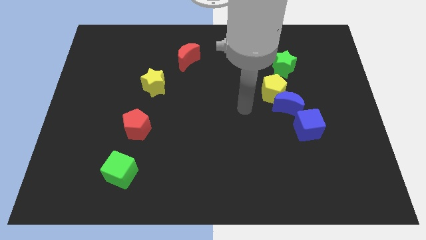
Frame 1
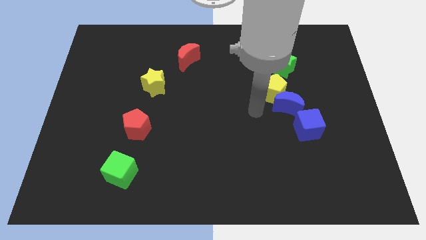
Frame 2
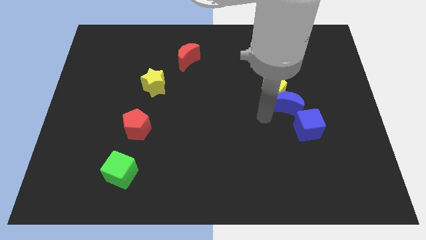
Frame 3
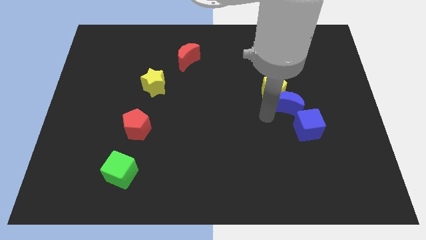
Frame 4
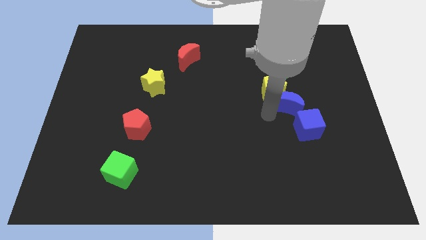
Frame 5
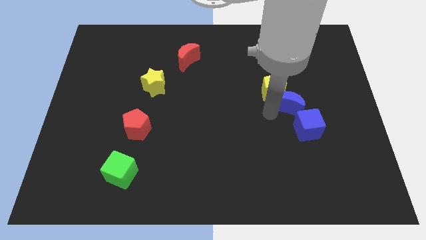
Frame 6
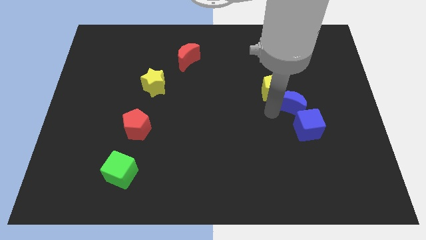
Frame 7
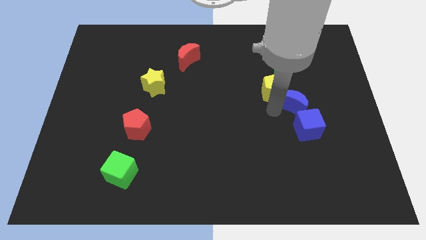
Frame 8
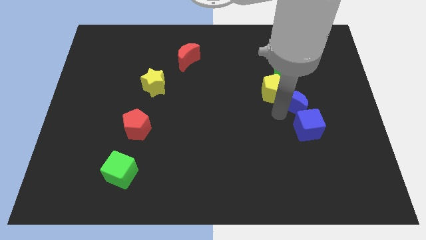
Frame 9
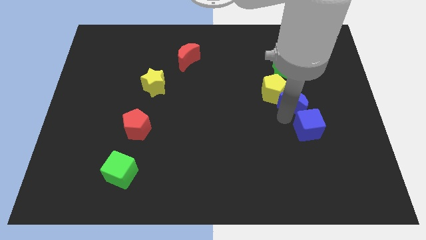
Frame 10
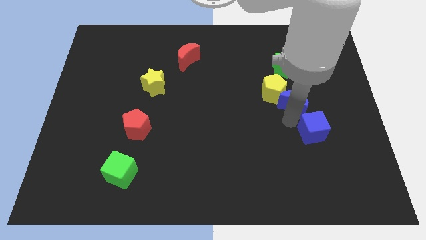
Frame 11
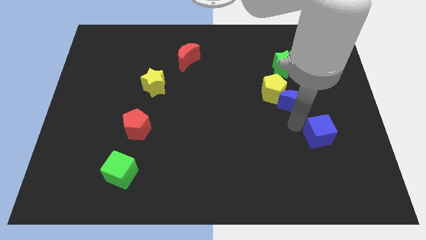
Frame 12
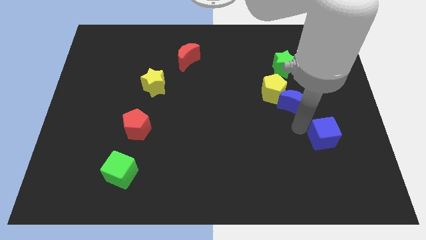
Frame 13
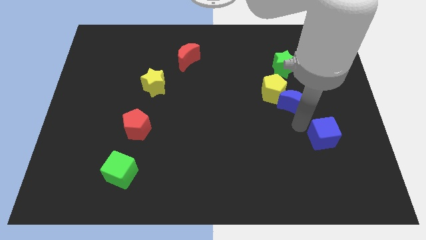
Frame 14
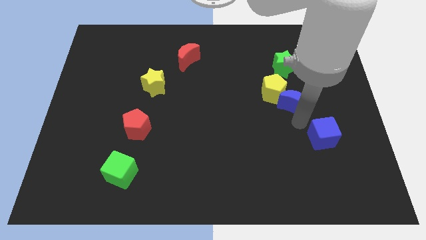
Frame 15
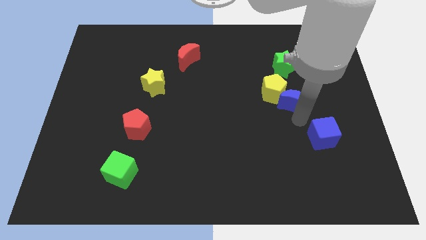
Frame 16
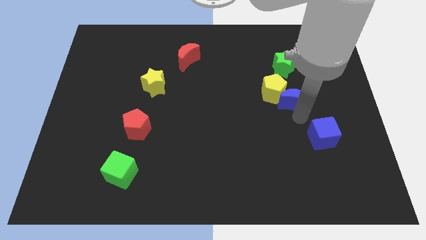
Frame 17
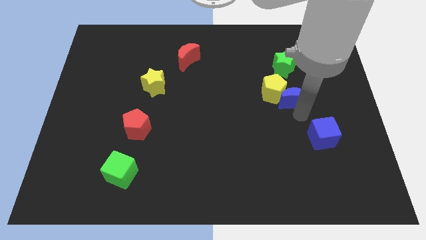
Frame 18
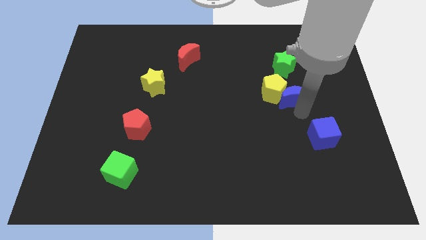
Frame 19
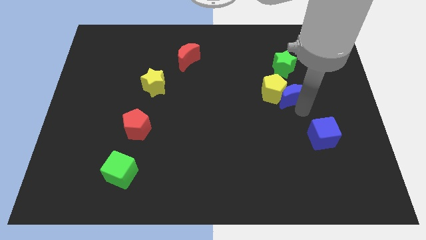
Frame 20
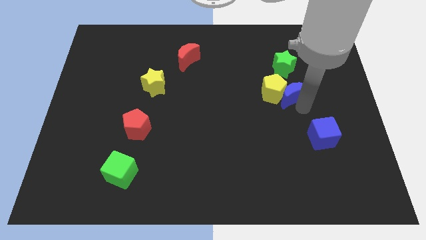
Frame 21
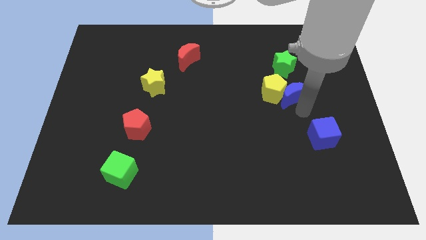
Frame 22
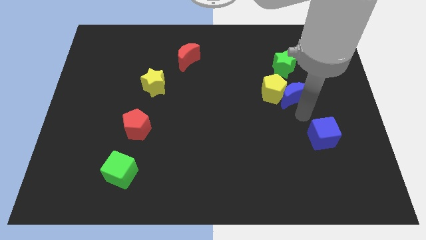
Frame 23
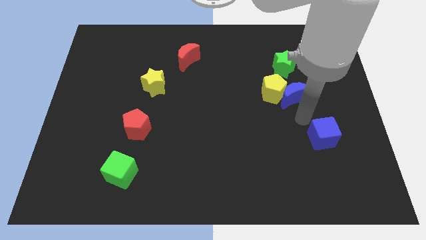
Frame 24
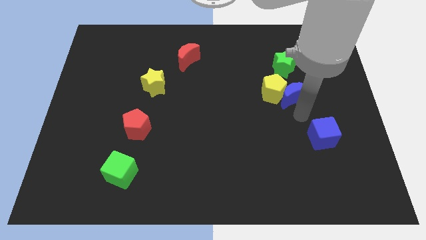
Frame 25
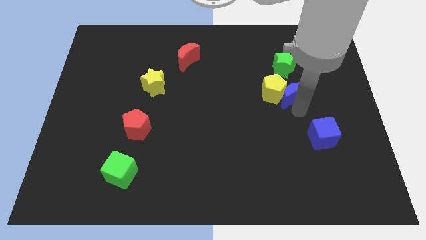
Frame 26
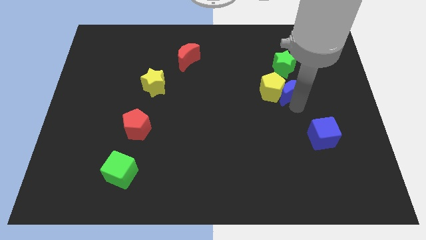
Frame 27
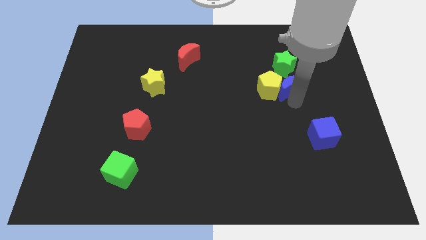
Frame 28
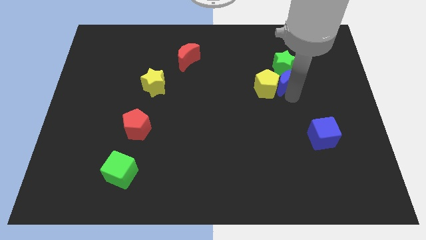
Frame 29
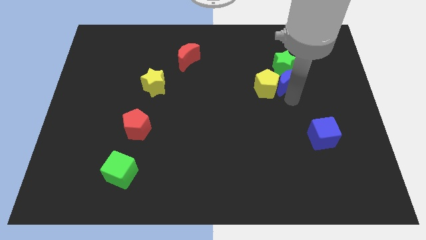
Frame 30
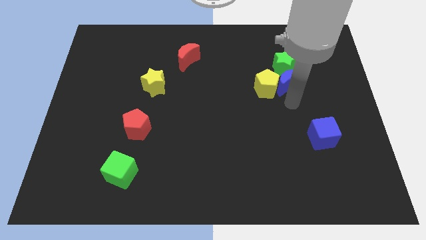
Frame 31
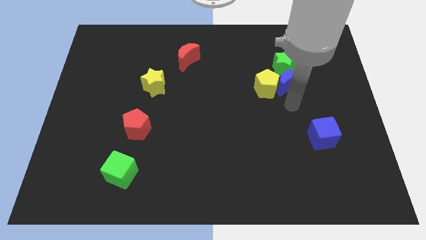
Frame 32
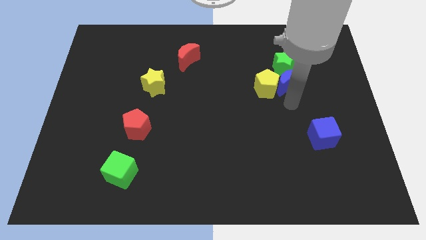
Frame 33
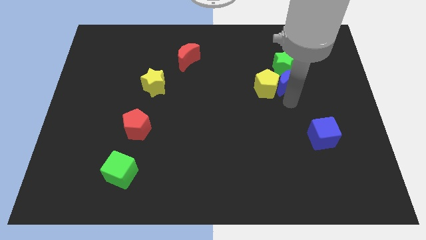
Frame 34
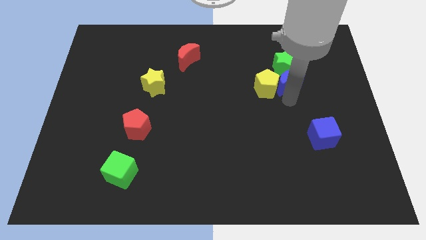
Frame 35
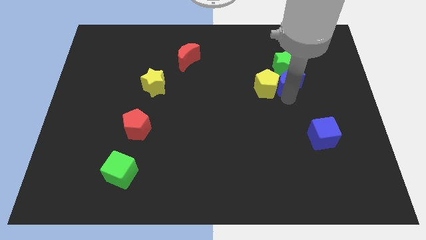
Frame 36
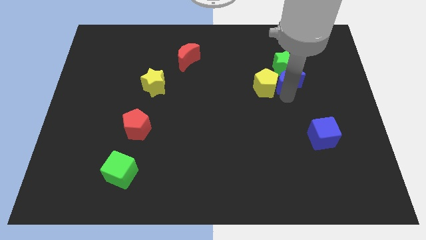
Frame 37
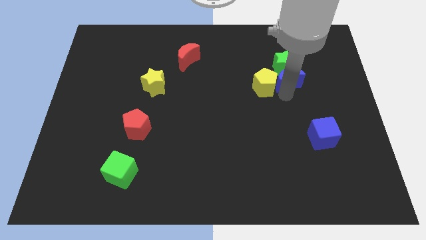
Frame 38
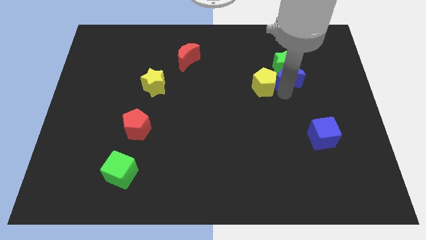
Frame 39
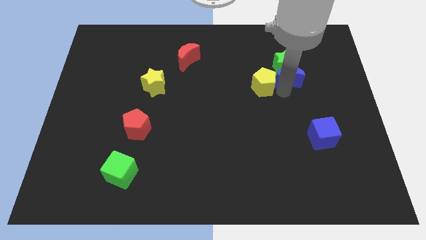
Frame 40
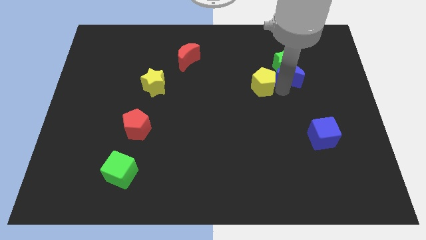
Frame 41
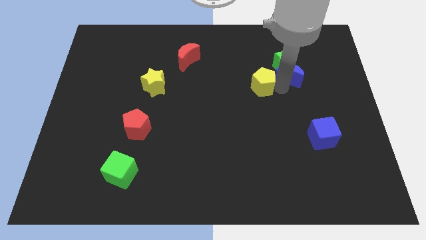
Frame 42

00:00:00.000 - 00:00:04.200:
pull the blue moon apart from the yellow pentagon and blue cube

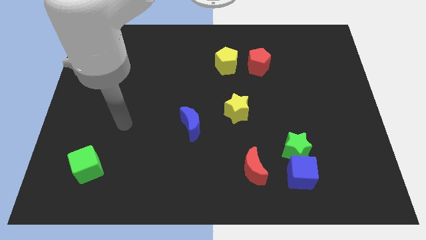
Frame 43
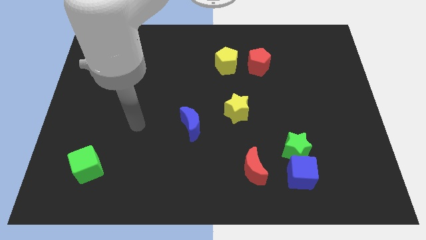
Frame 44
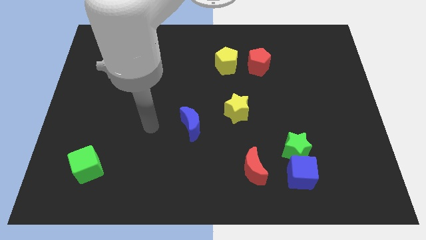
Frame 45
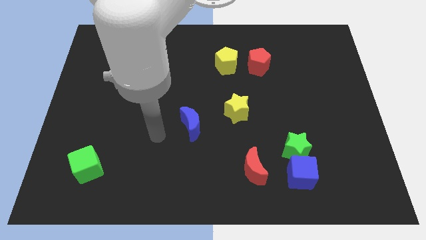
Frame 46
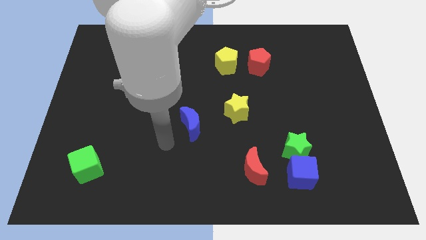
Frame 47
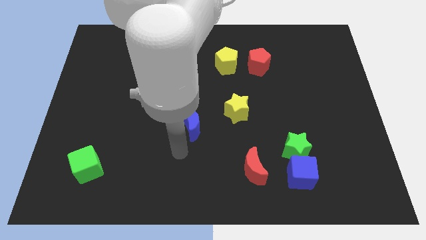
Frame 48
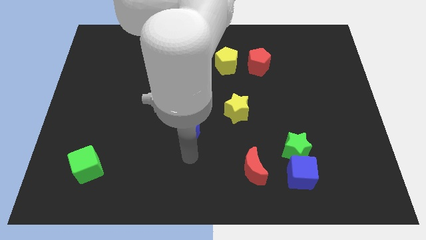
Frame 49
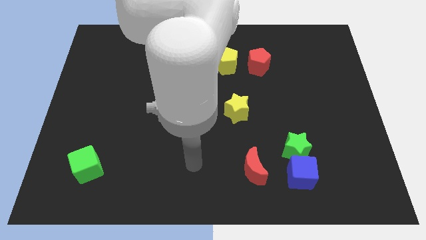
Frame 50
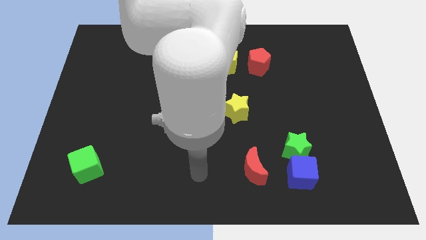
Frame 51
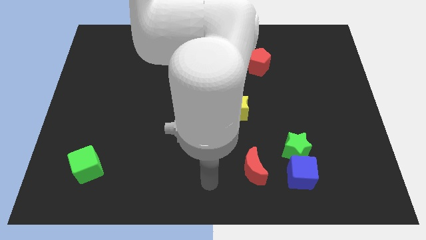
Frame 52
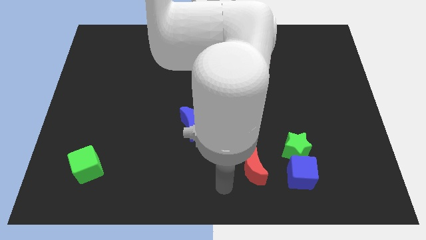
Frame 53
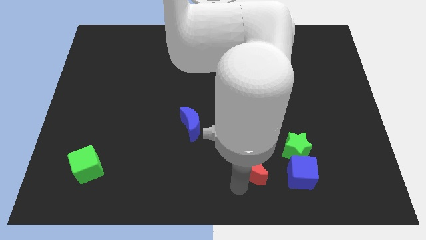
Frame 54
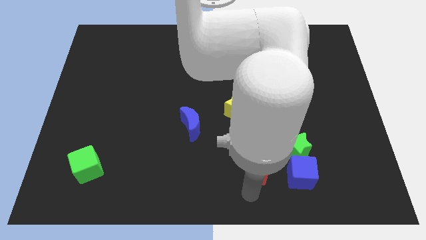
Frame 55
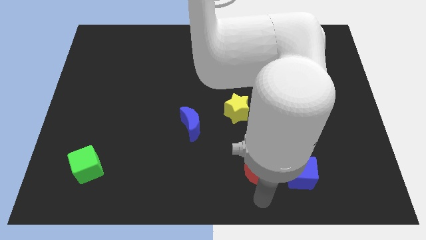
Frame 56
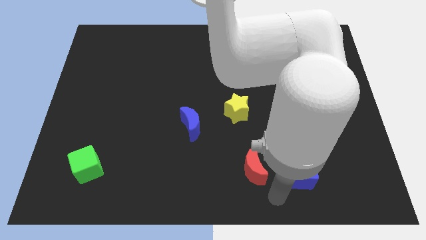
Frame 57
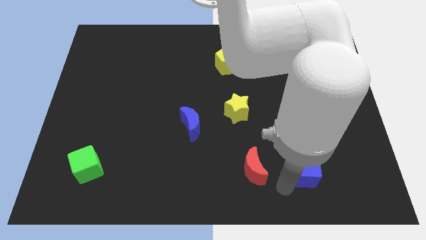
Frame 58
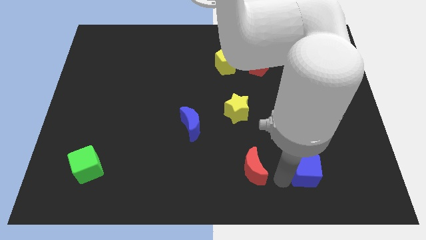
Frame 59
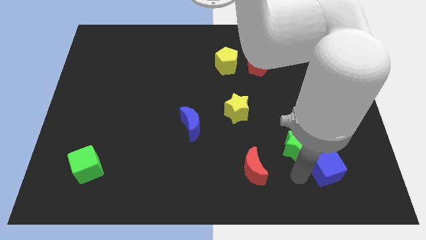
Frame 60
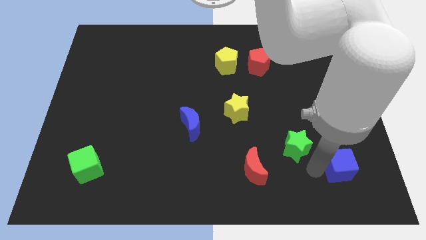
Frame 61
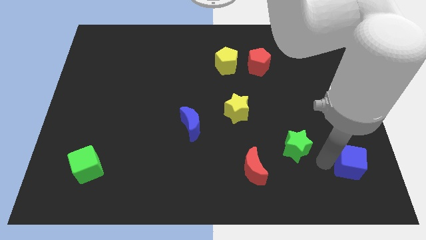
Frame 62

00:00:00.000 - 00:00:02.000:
move the green star away from the blue cube

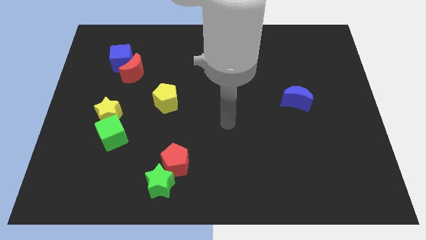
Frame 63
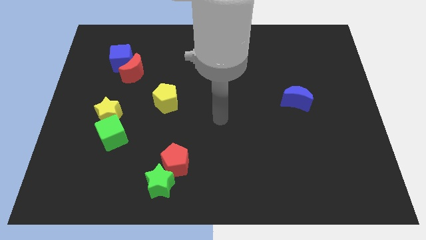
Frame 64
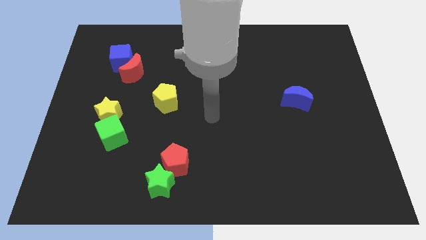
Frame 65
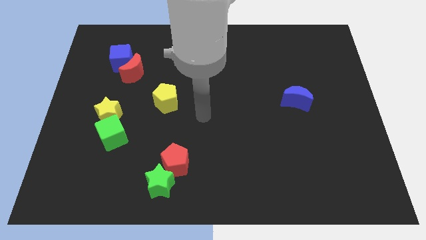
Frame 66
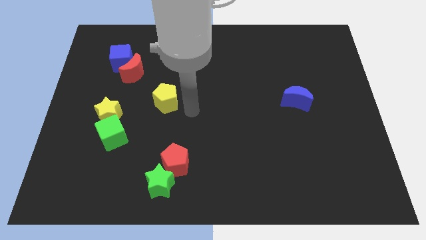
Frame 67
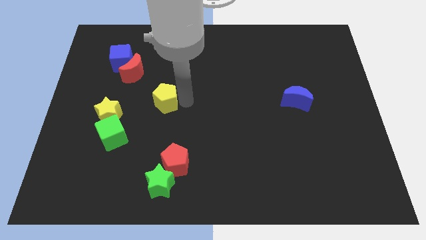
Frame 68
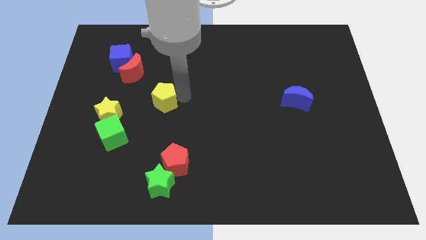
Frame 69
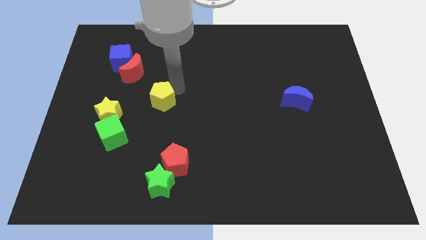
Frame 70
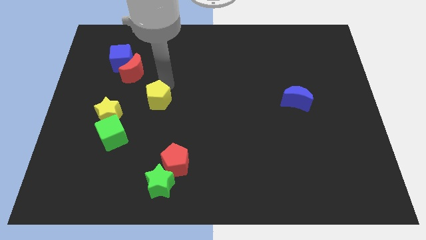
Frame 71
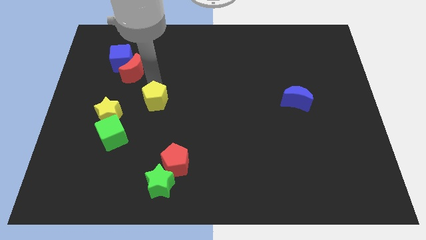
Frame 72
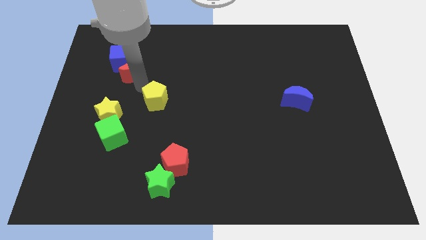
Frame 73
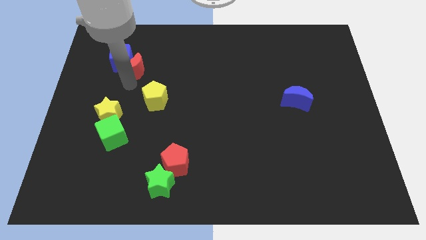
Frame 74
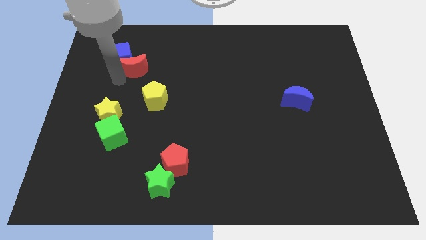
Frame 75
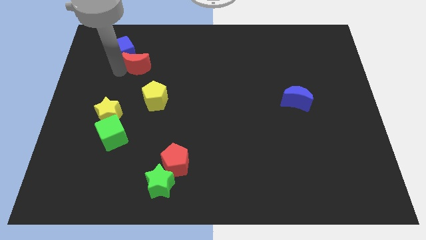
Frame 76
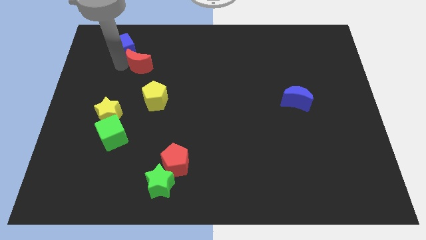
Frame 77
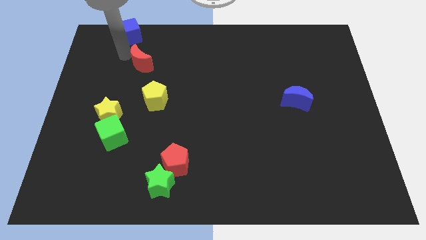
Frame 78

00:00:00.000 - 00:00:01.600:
separate the red moon from the blue cube

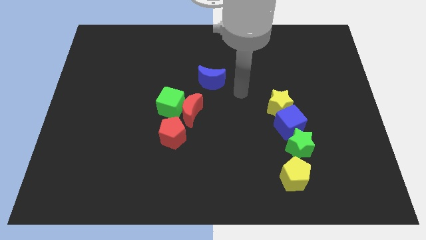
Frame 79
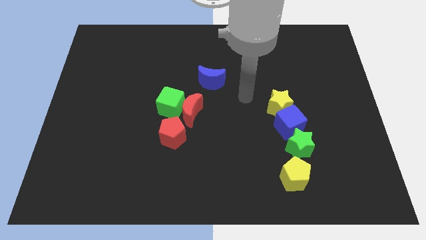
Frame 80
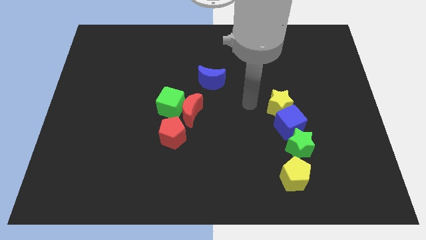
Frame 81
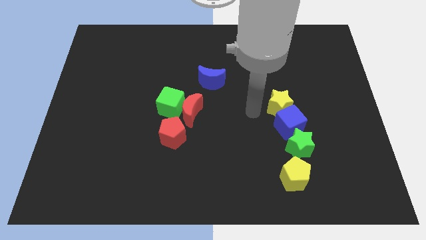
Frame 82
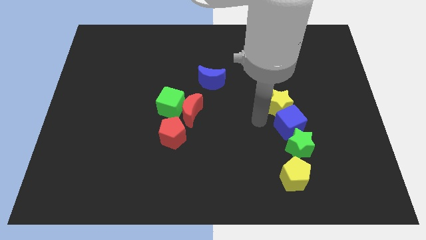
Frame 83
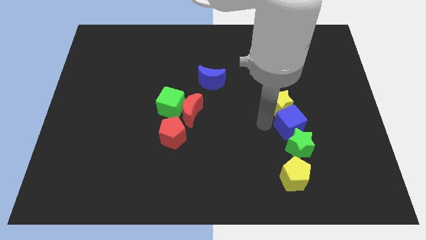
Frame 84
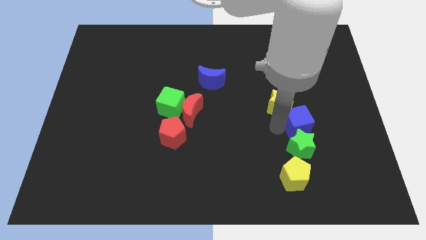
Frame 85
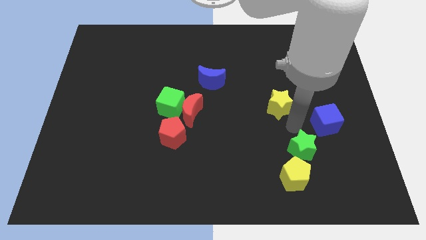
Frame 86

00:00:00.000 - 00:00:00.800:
pull the yellow star apart from the blue cube

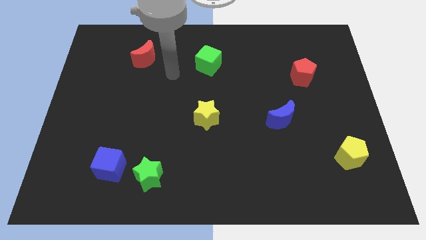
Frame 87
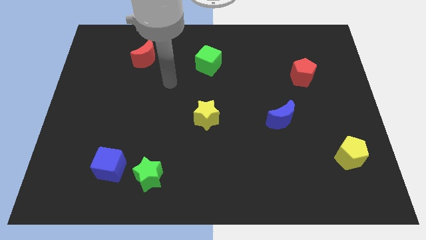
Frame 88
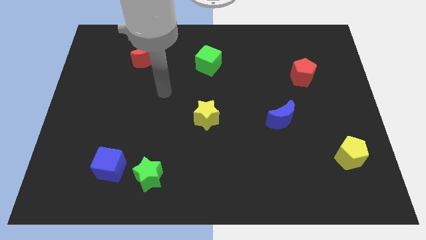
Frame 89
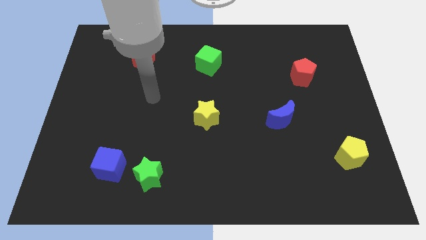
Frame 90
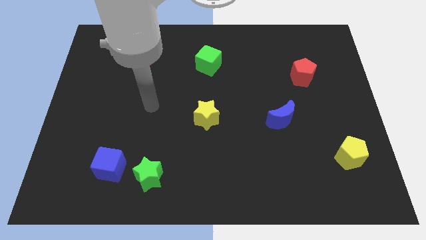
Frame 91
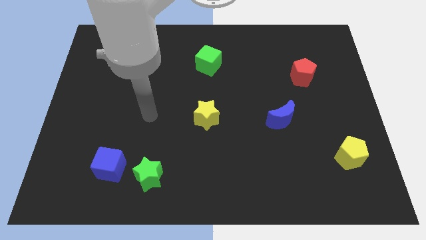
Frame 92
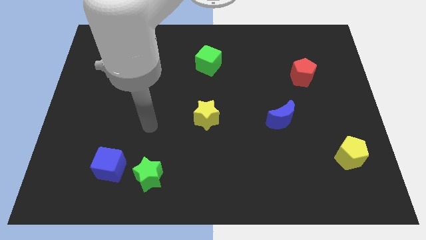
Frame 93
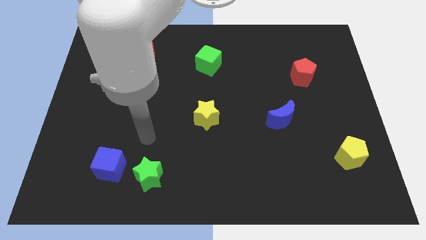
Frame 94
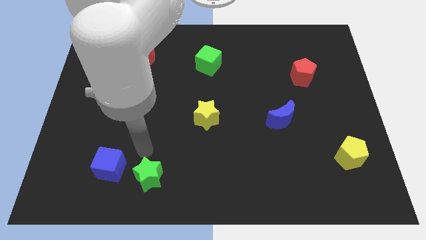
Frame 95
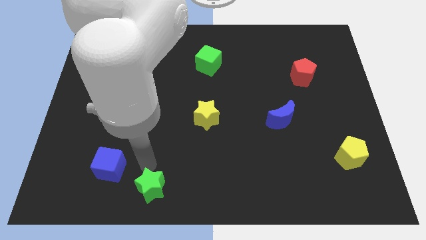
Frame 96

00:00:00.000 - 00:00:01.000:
move the blue cube away from the green star
